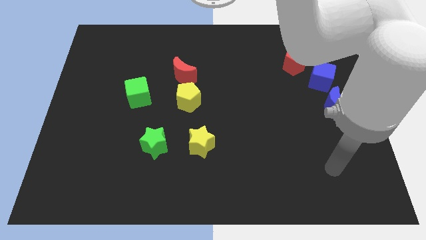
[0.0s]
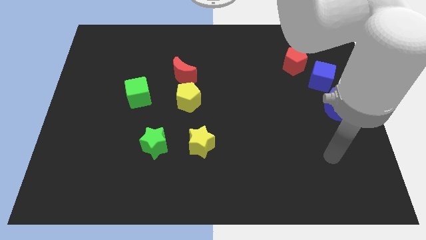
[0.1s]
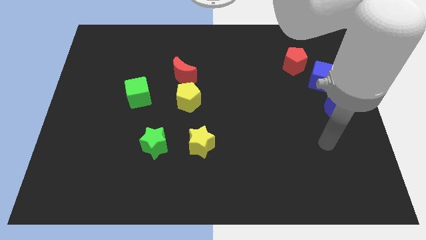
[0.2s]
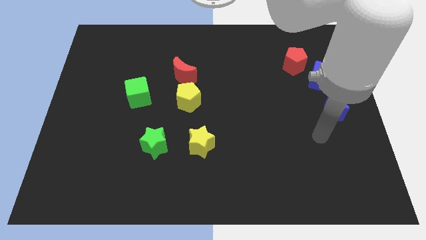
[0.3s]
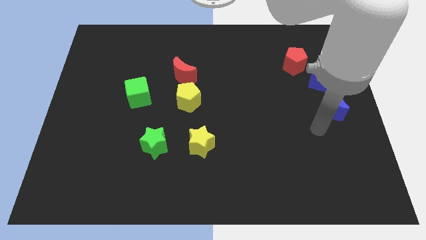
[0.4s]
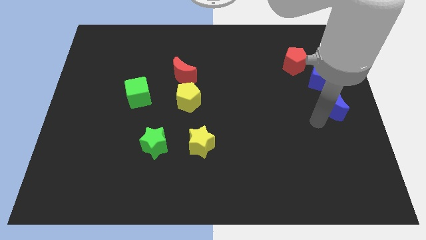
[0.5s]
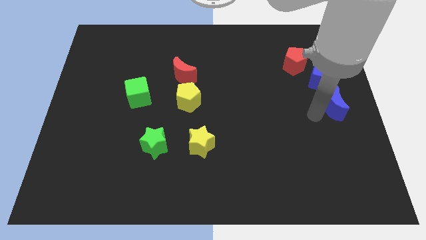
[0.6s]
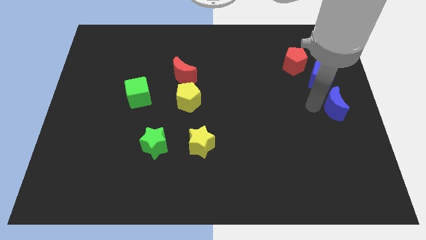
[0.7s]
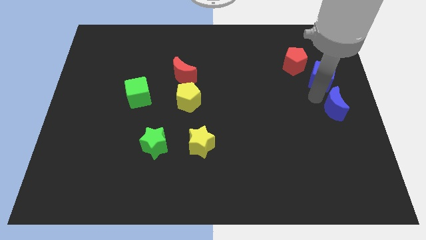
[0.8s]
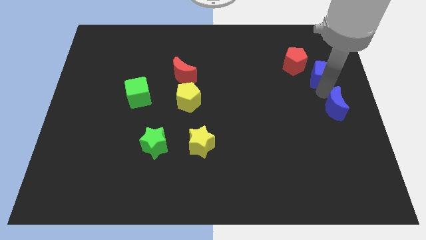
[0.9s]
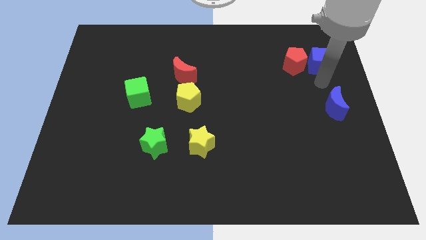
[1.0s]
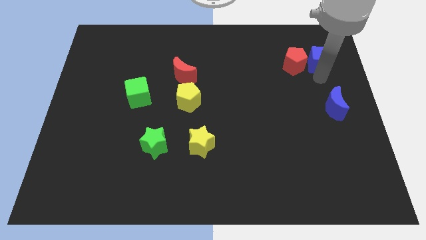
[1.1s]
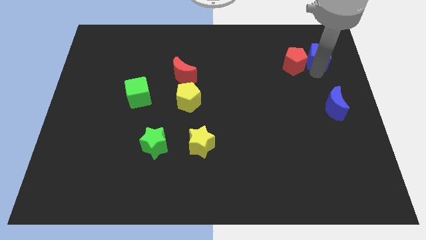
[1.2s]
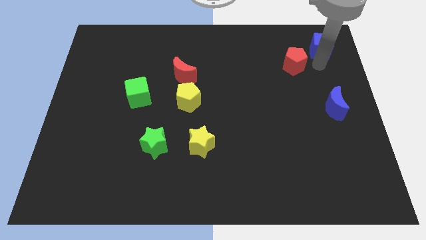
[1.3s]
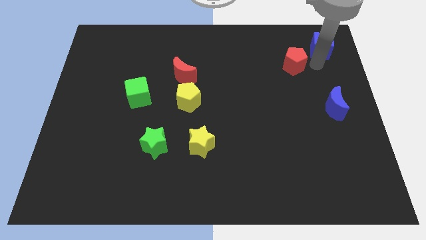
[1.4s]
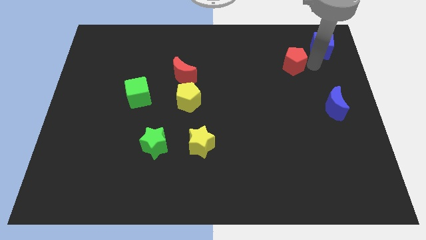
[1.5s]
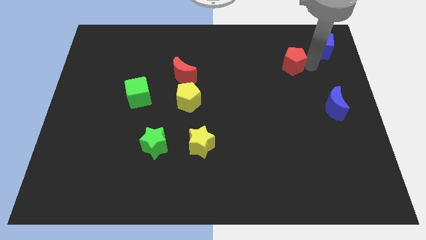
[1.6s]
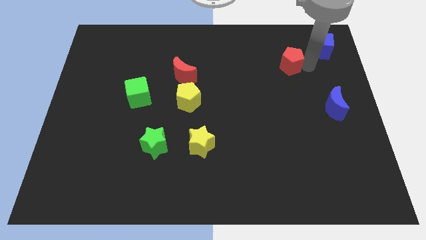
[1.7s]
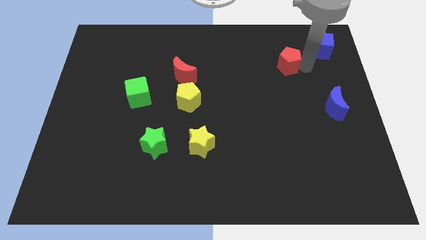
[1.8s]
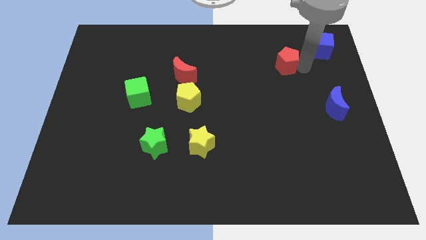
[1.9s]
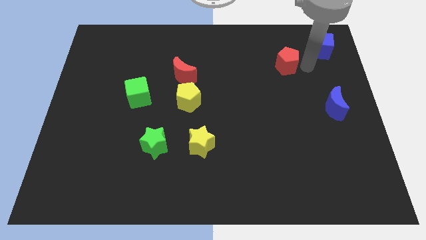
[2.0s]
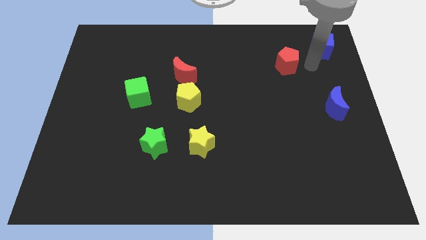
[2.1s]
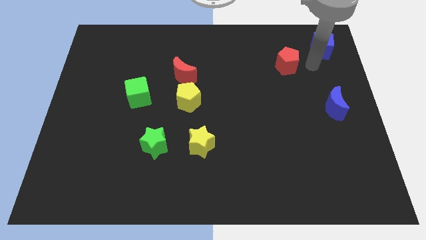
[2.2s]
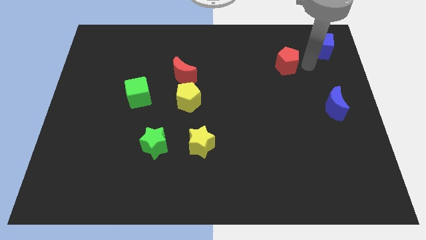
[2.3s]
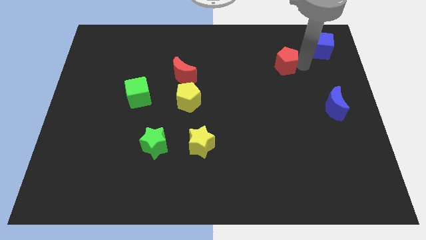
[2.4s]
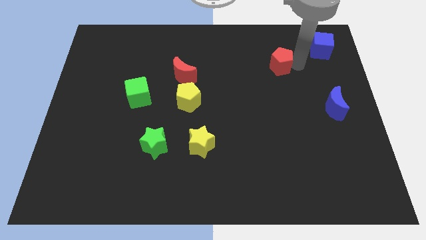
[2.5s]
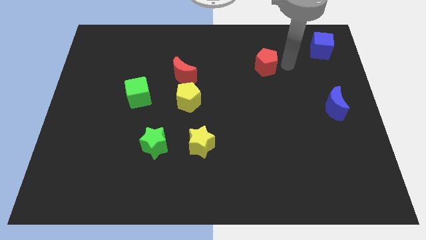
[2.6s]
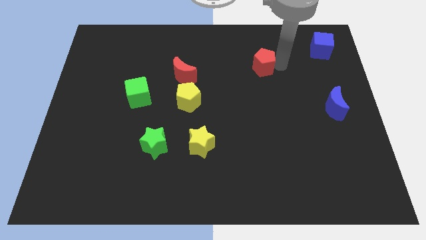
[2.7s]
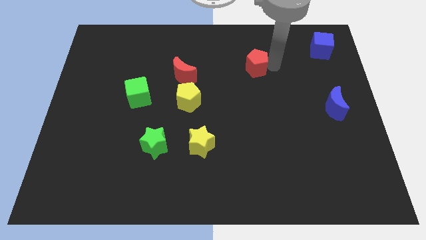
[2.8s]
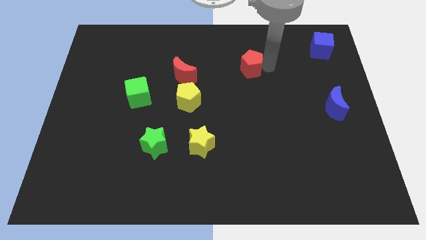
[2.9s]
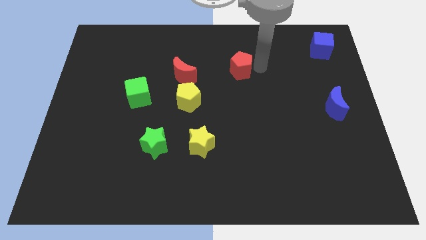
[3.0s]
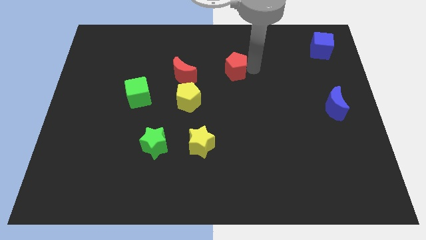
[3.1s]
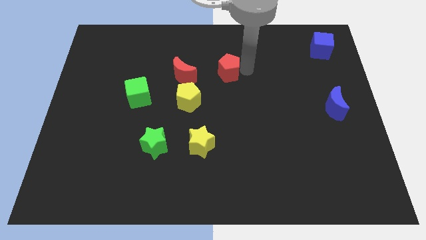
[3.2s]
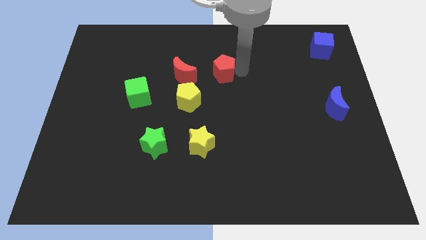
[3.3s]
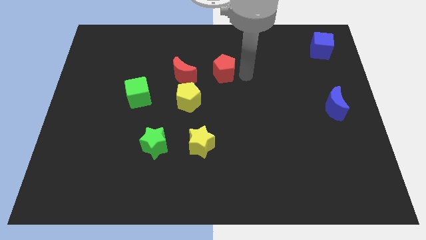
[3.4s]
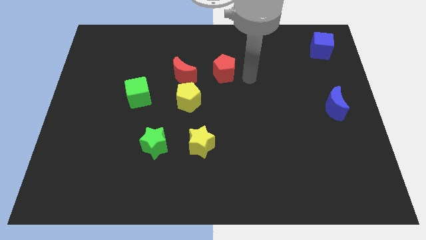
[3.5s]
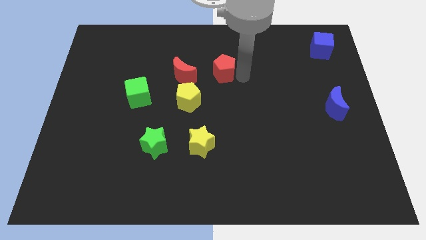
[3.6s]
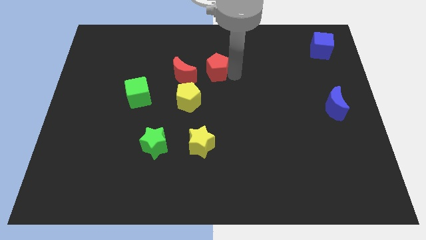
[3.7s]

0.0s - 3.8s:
move the red pentagon left

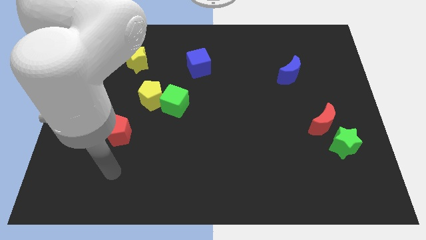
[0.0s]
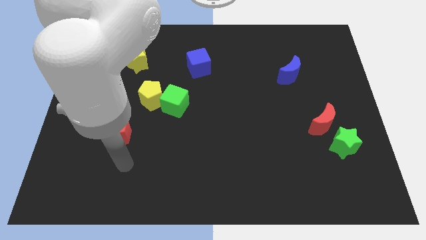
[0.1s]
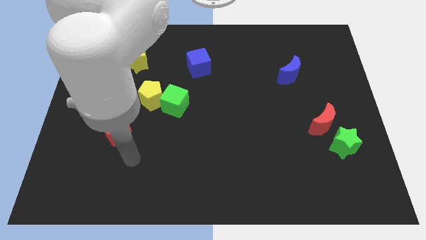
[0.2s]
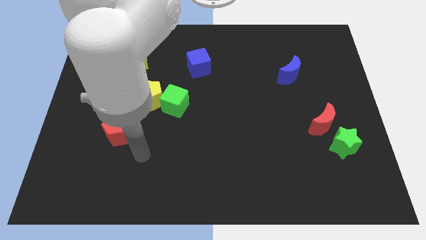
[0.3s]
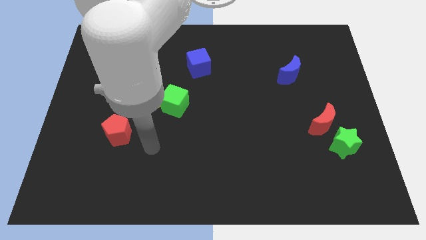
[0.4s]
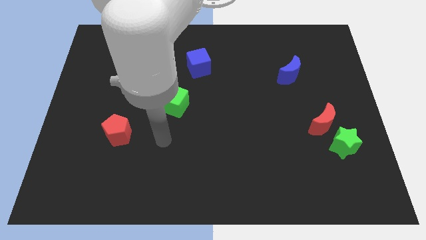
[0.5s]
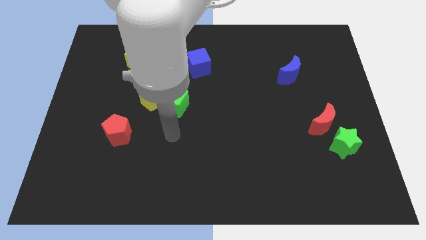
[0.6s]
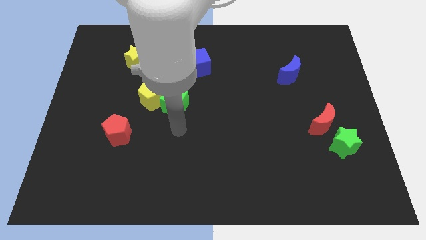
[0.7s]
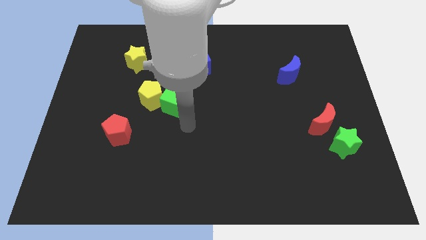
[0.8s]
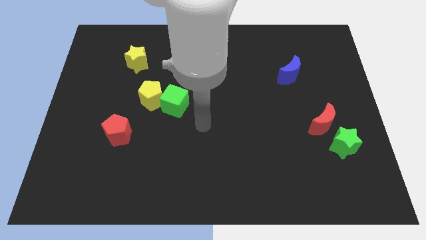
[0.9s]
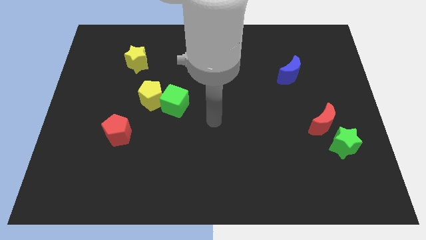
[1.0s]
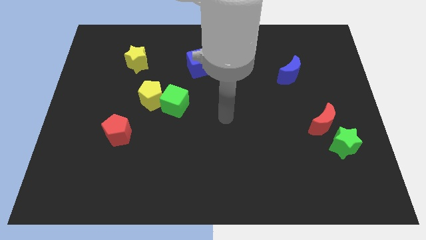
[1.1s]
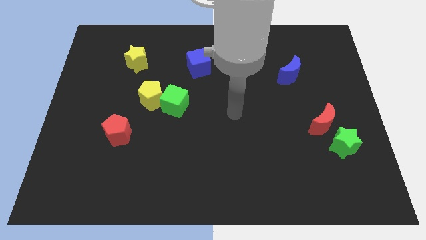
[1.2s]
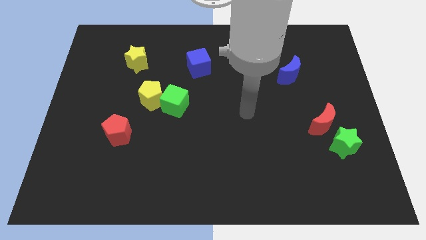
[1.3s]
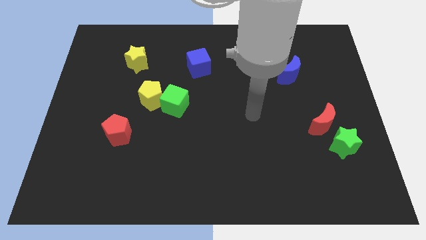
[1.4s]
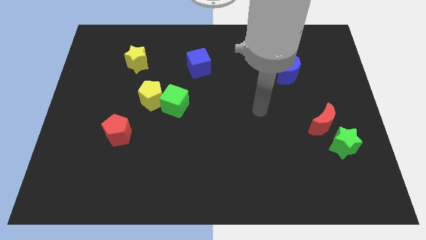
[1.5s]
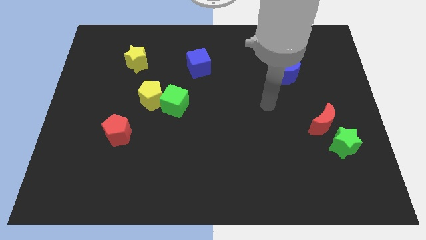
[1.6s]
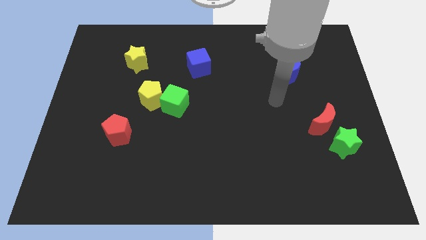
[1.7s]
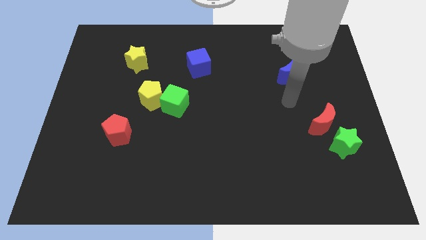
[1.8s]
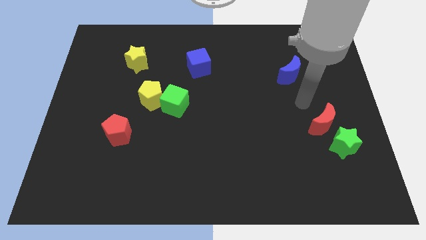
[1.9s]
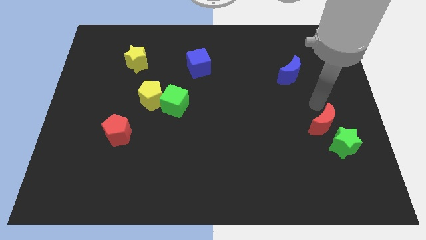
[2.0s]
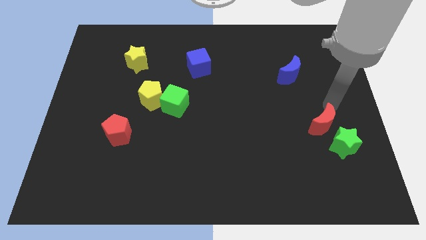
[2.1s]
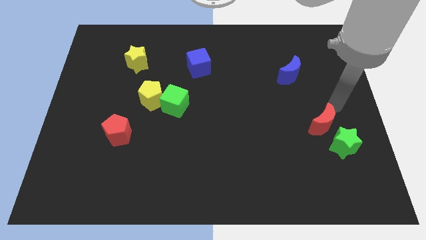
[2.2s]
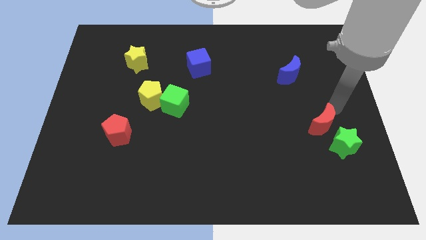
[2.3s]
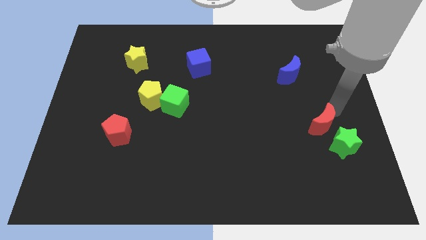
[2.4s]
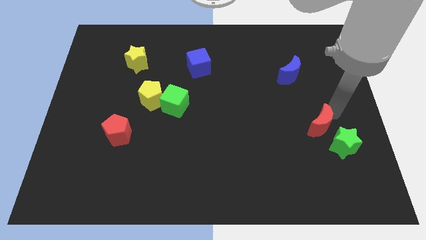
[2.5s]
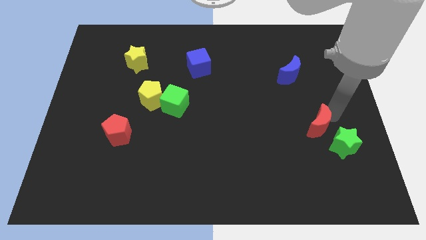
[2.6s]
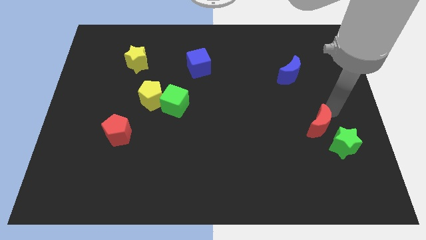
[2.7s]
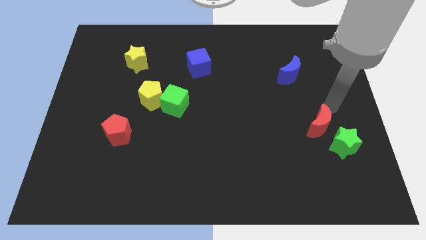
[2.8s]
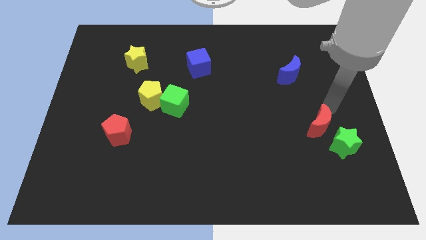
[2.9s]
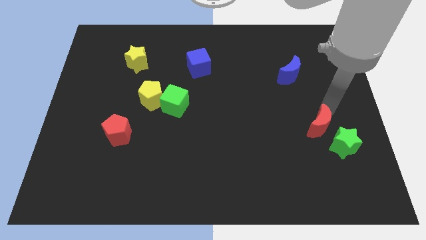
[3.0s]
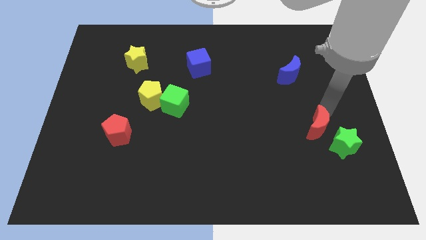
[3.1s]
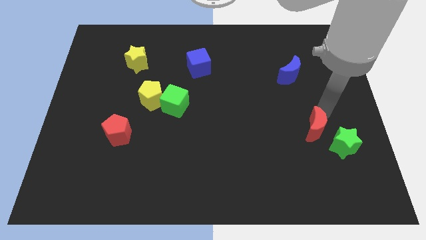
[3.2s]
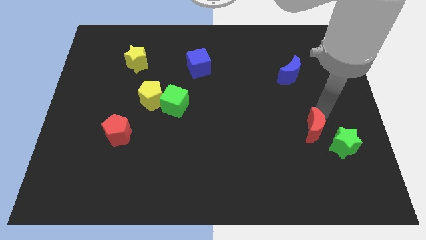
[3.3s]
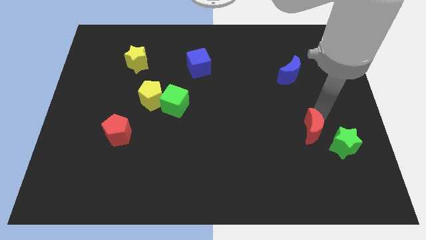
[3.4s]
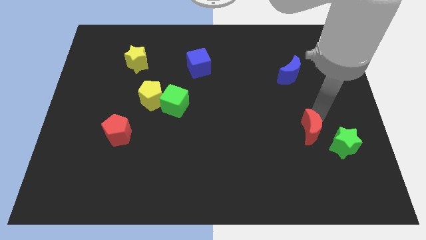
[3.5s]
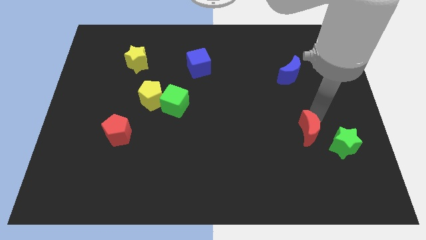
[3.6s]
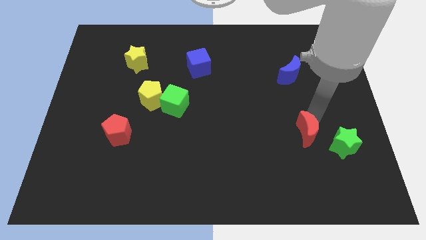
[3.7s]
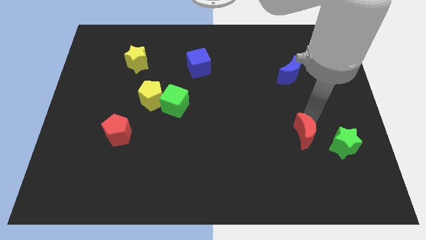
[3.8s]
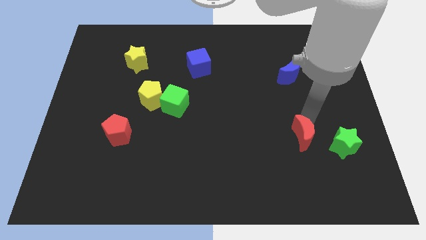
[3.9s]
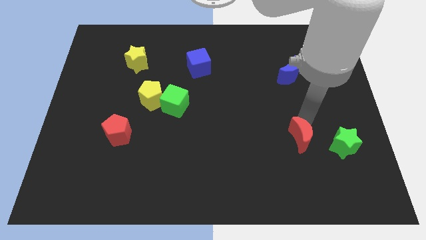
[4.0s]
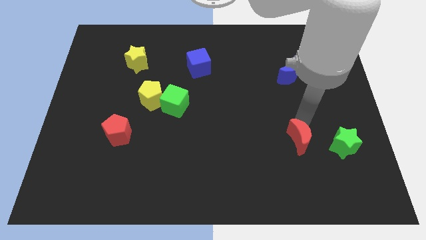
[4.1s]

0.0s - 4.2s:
slide the red moon a bit diagonally down and to the left

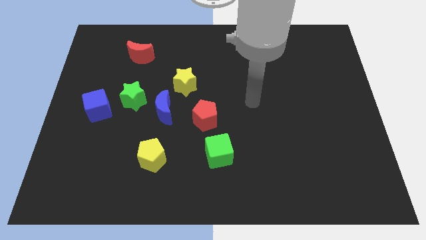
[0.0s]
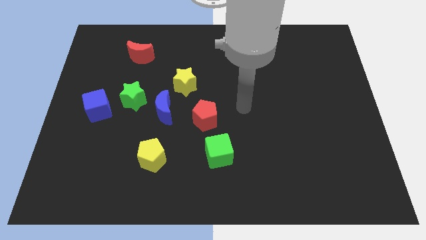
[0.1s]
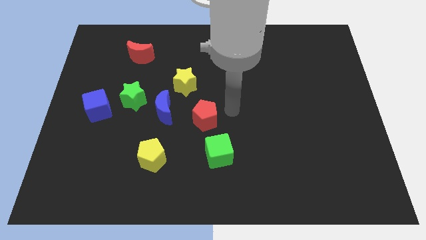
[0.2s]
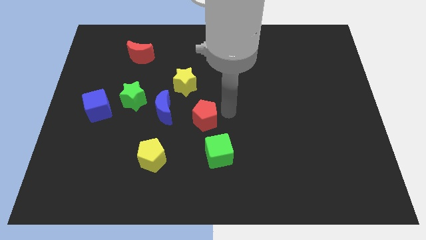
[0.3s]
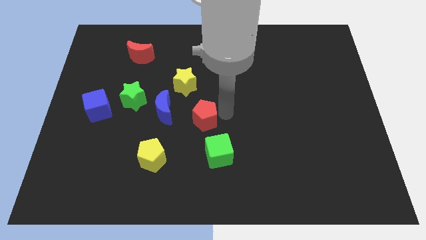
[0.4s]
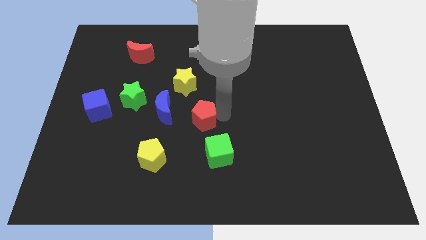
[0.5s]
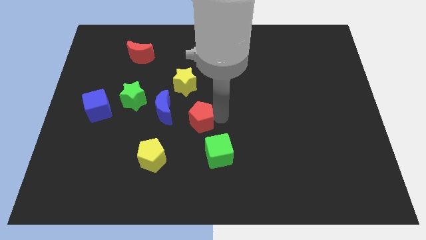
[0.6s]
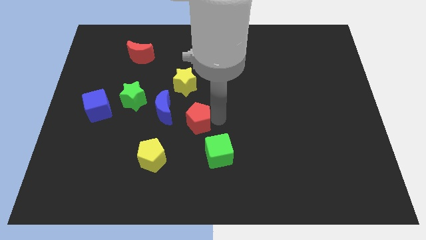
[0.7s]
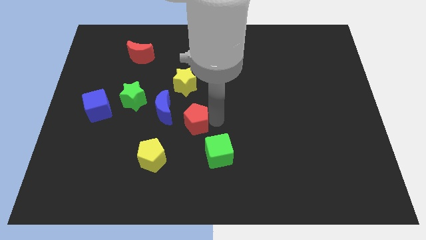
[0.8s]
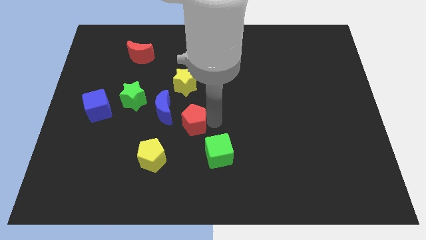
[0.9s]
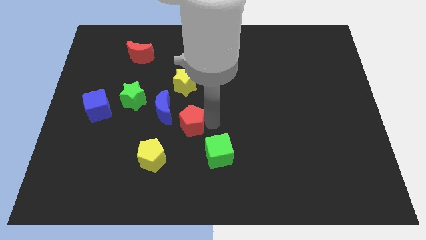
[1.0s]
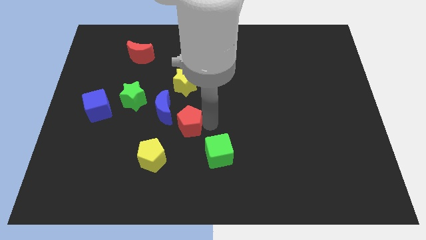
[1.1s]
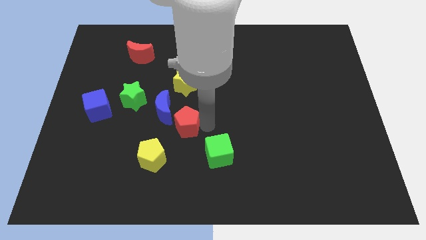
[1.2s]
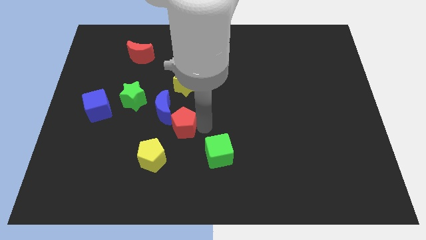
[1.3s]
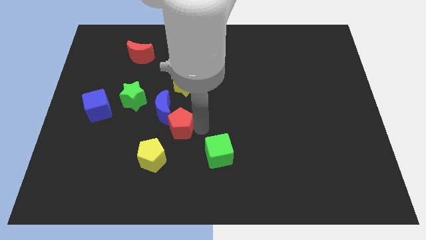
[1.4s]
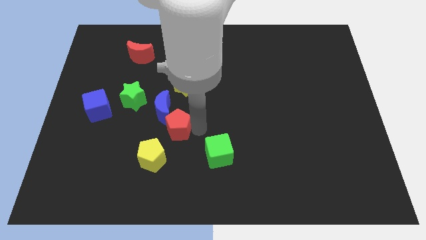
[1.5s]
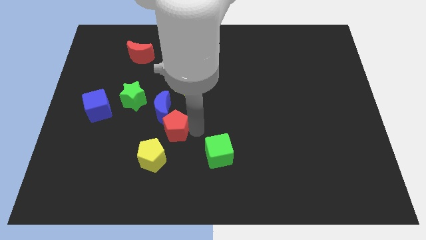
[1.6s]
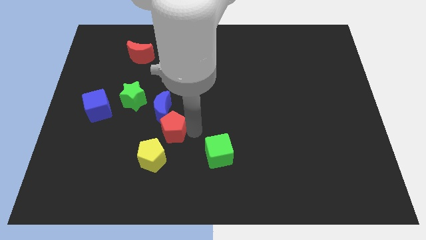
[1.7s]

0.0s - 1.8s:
slide the red pentagon to the left a little bit
